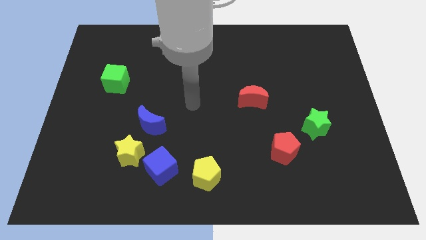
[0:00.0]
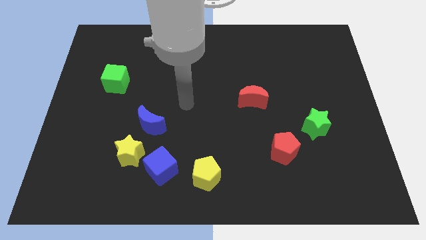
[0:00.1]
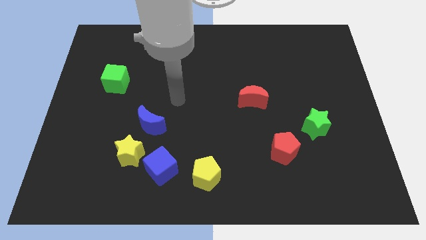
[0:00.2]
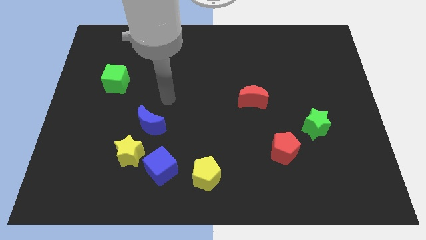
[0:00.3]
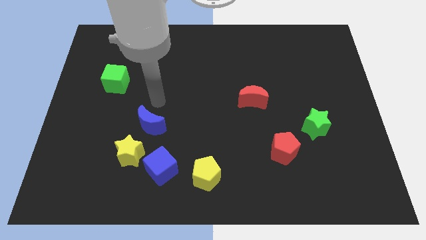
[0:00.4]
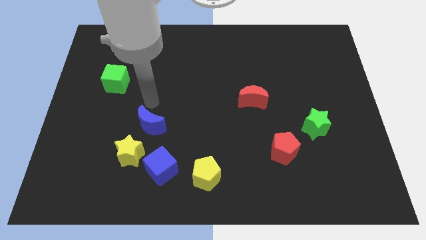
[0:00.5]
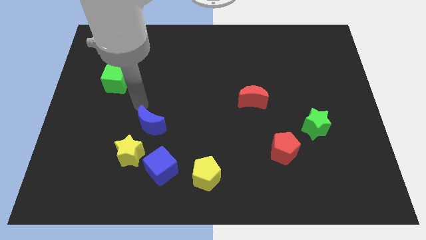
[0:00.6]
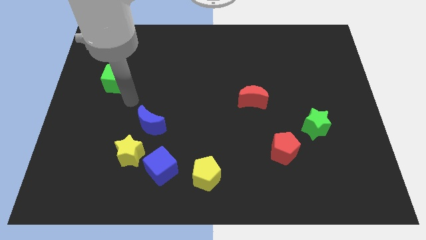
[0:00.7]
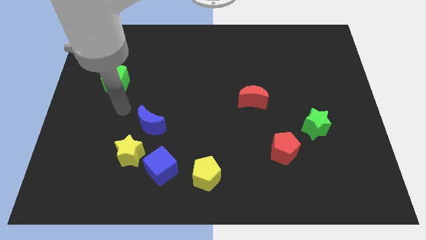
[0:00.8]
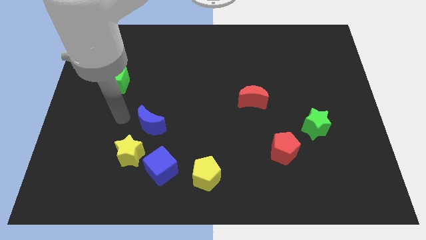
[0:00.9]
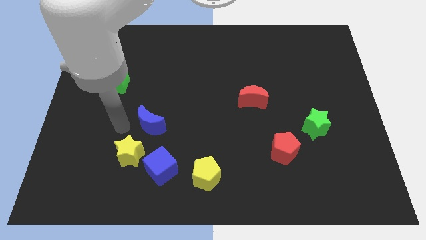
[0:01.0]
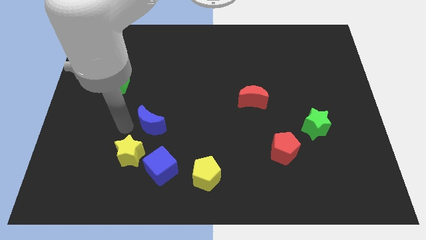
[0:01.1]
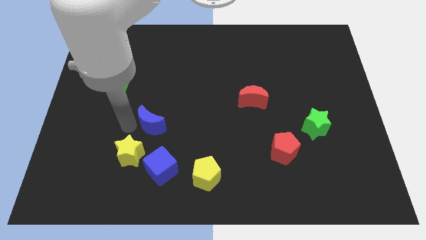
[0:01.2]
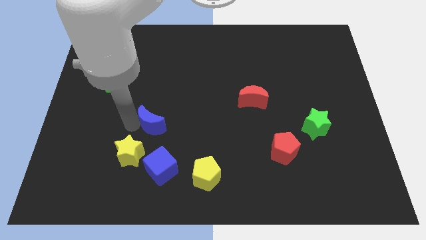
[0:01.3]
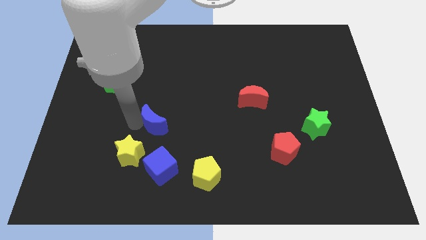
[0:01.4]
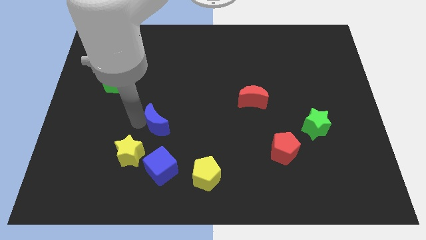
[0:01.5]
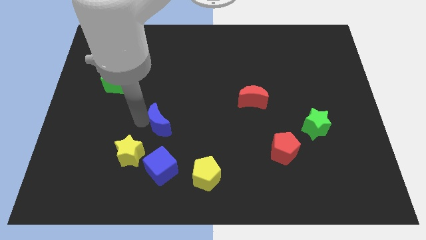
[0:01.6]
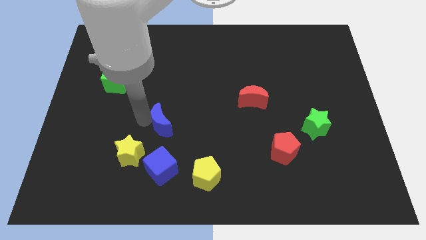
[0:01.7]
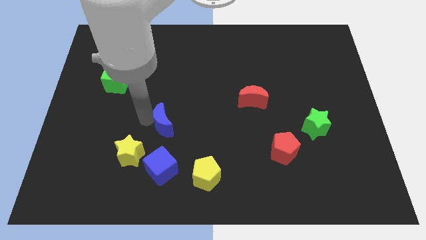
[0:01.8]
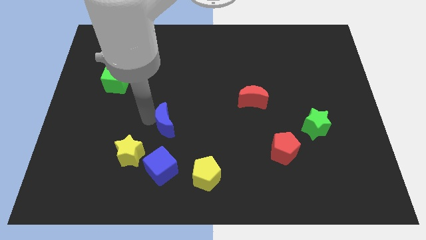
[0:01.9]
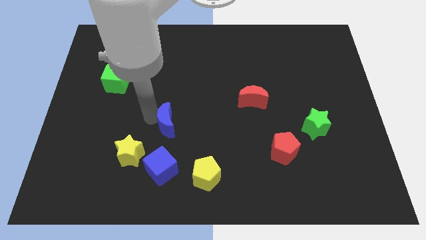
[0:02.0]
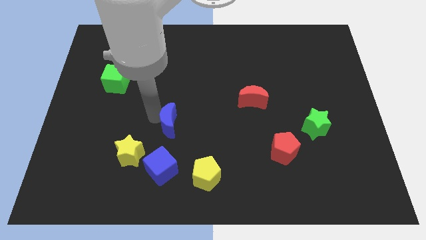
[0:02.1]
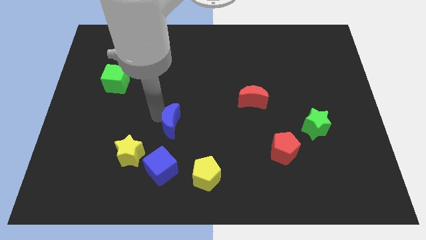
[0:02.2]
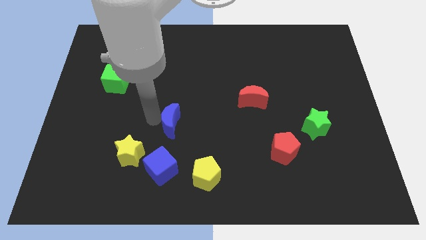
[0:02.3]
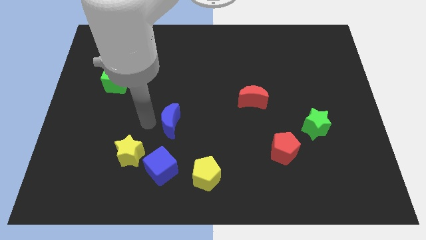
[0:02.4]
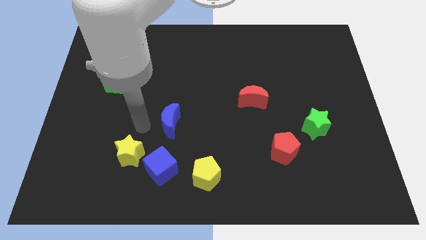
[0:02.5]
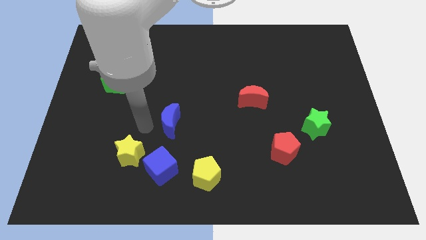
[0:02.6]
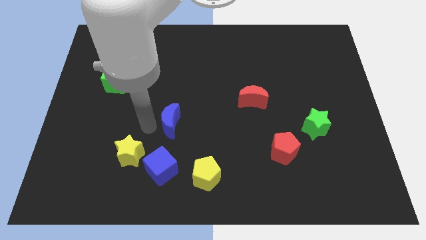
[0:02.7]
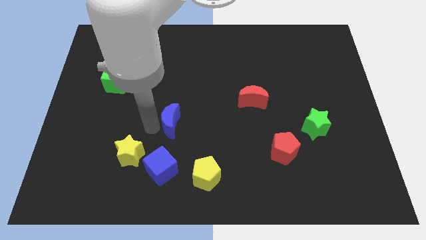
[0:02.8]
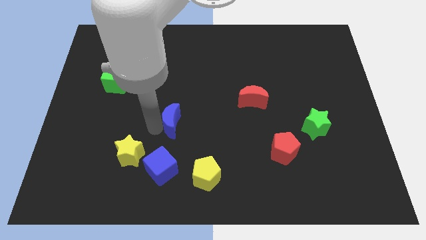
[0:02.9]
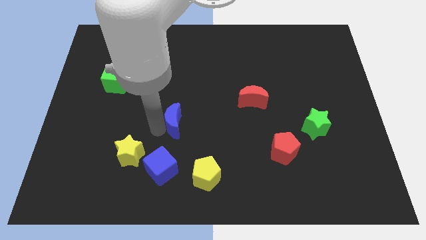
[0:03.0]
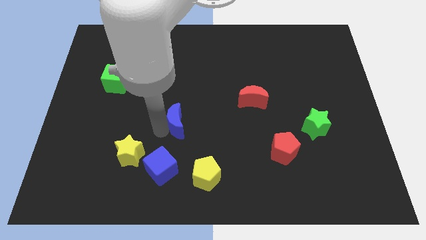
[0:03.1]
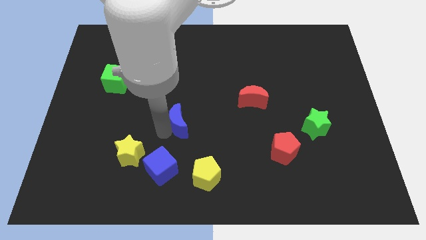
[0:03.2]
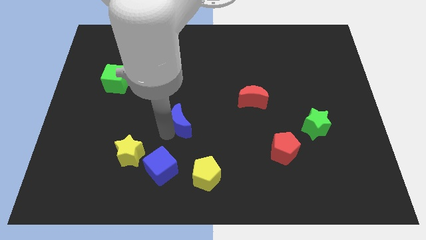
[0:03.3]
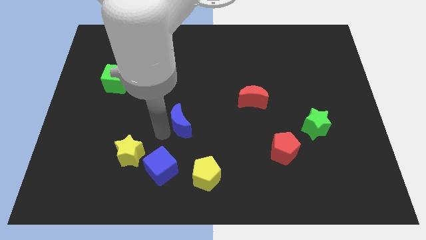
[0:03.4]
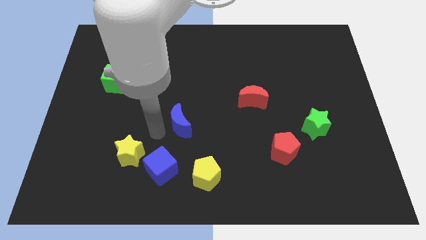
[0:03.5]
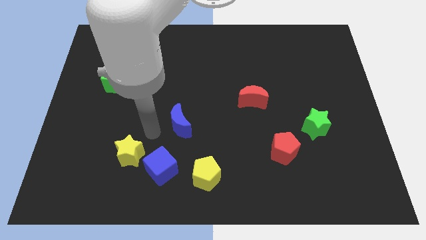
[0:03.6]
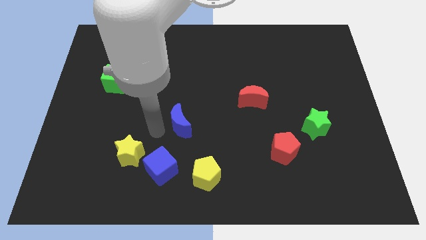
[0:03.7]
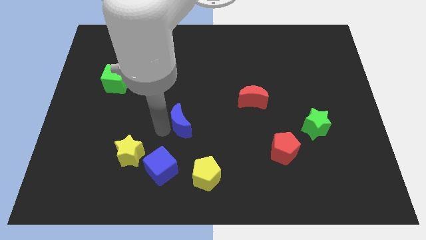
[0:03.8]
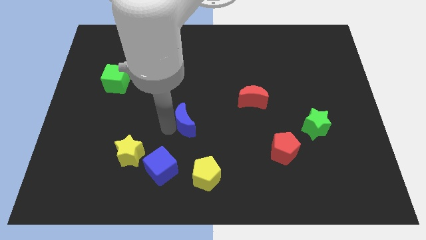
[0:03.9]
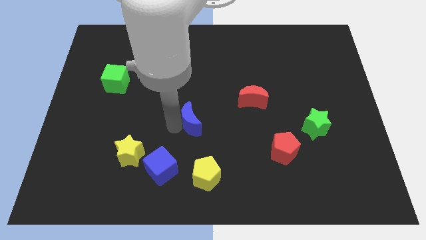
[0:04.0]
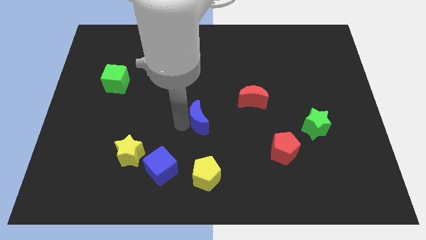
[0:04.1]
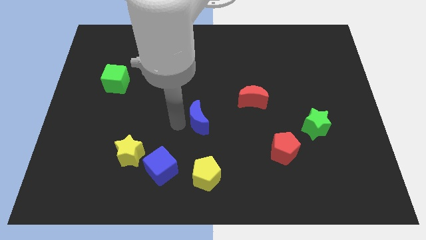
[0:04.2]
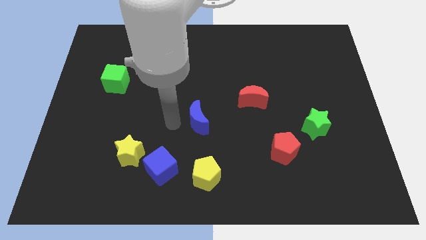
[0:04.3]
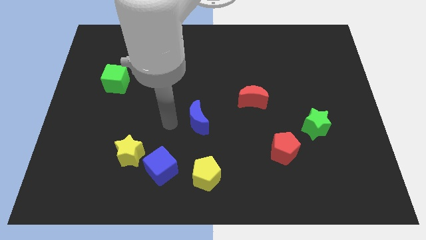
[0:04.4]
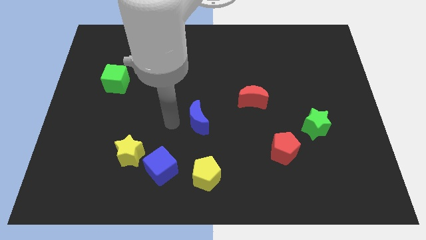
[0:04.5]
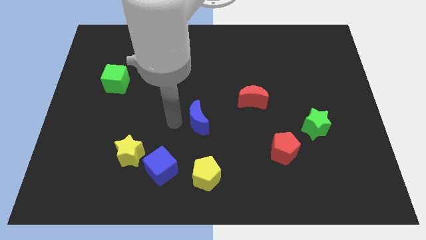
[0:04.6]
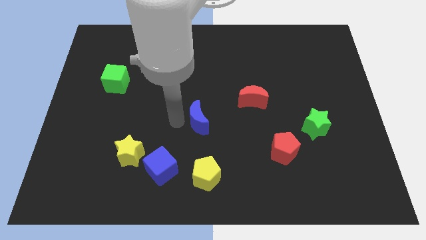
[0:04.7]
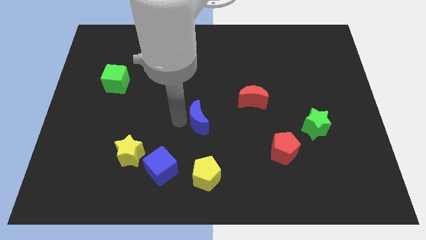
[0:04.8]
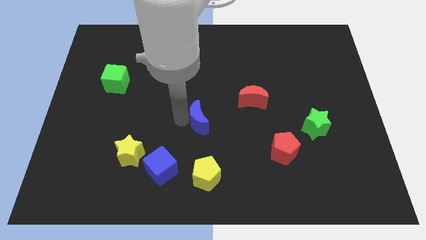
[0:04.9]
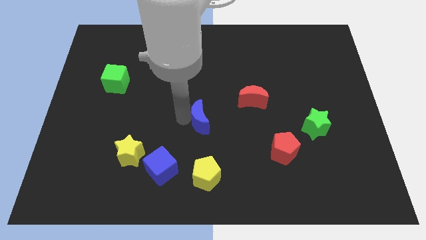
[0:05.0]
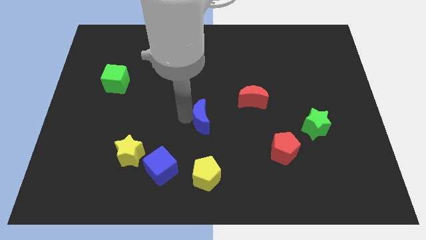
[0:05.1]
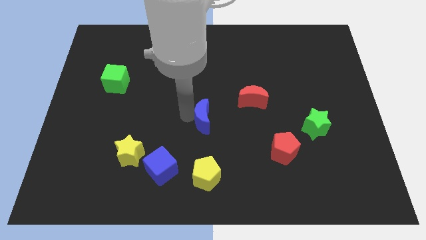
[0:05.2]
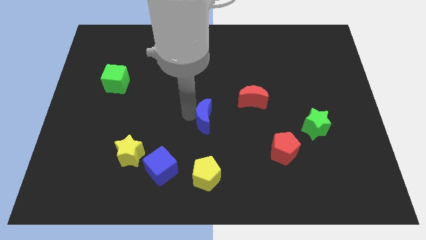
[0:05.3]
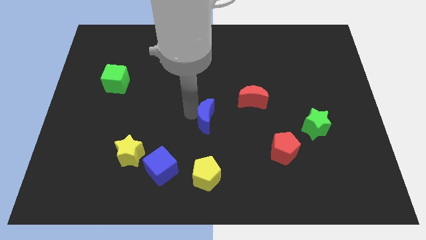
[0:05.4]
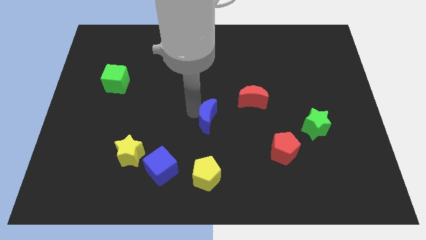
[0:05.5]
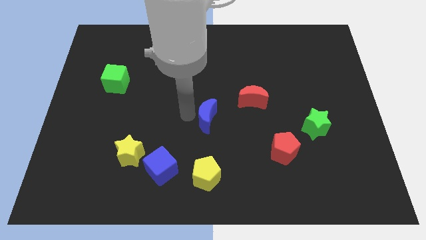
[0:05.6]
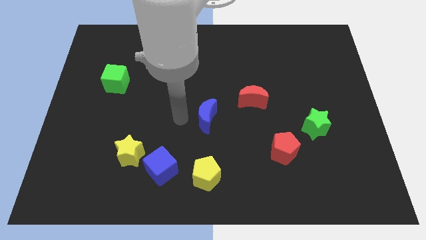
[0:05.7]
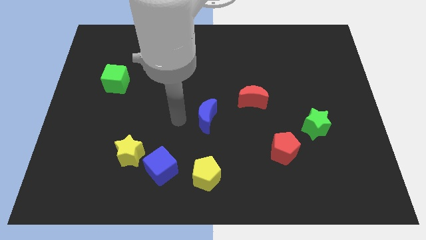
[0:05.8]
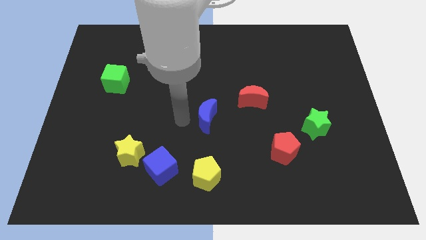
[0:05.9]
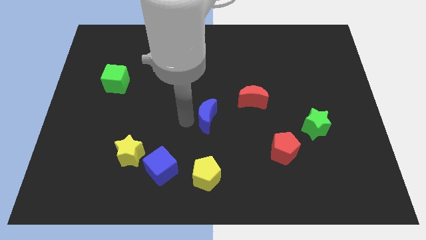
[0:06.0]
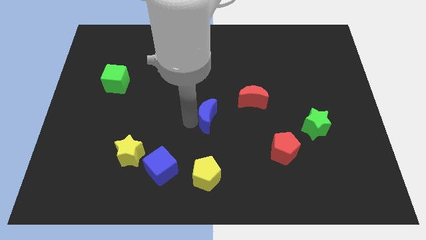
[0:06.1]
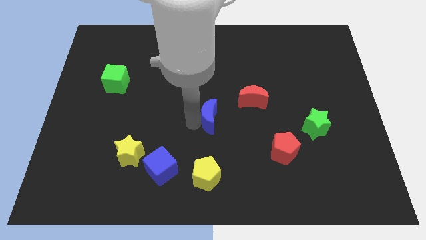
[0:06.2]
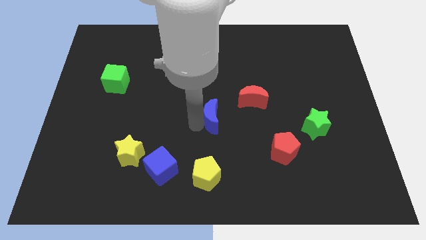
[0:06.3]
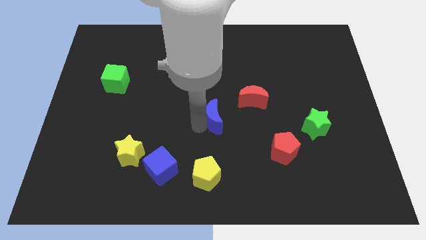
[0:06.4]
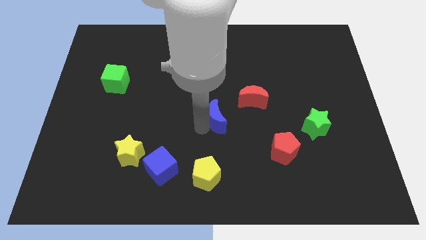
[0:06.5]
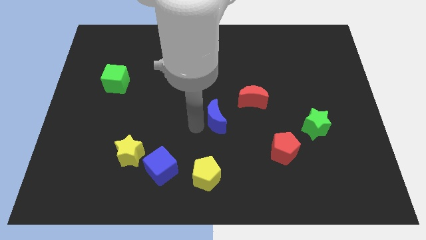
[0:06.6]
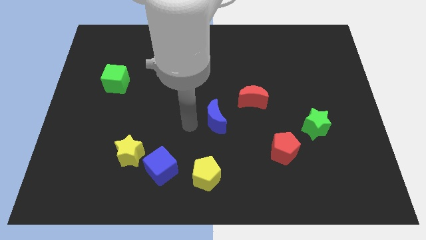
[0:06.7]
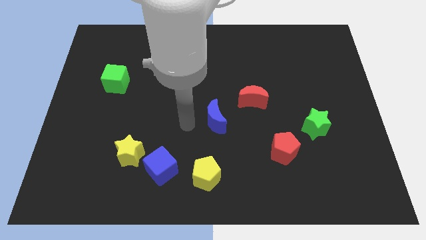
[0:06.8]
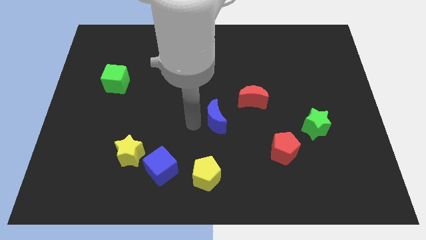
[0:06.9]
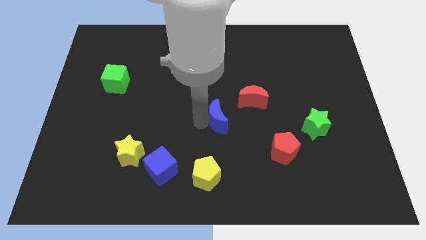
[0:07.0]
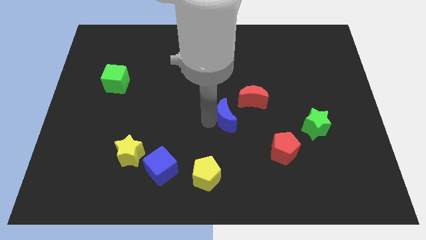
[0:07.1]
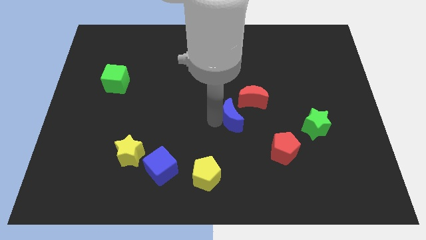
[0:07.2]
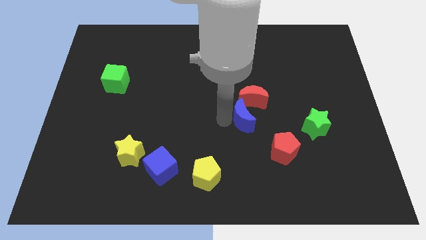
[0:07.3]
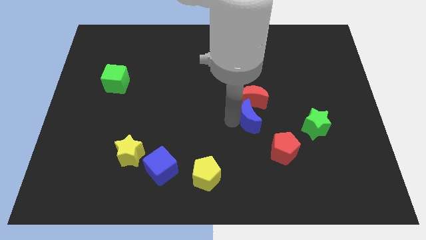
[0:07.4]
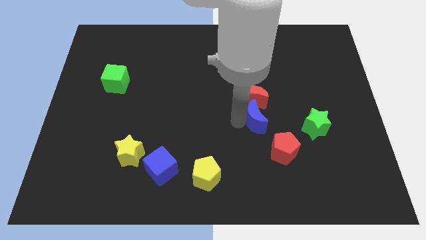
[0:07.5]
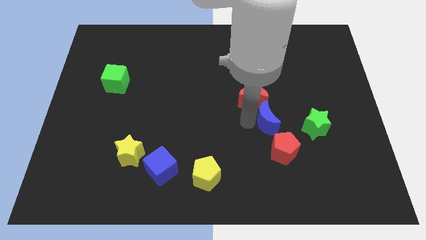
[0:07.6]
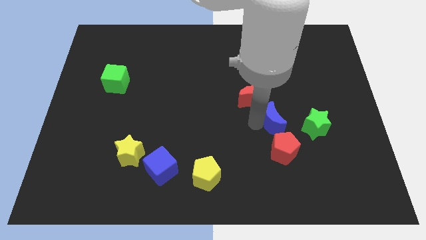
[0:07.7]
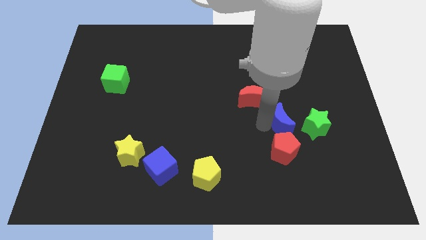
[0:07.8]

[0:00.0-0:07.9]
slide the blue moon to the top left of the green star
